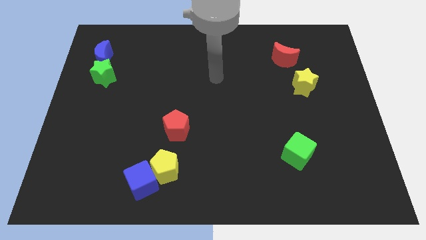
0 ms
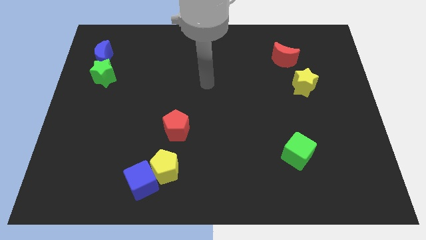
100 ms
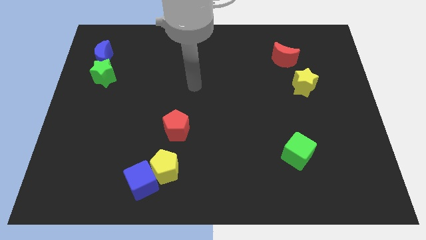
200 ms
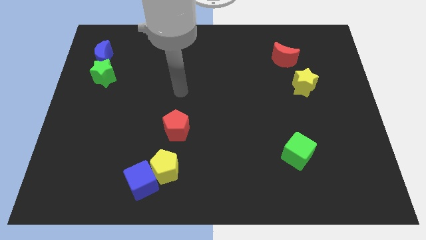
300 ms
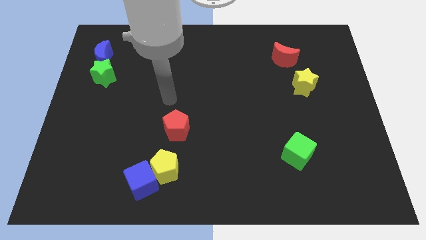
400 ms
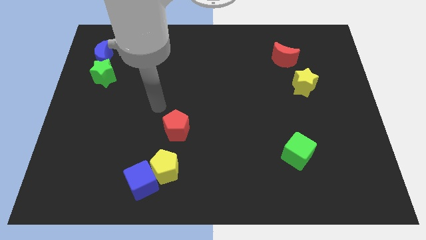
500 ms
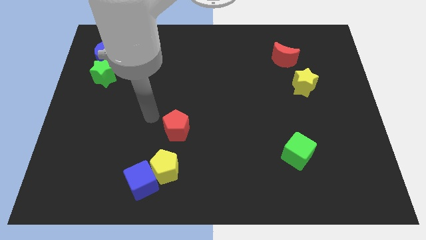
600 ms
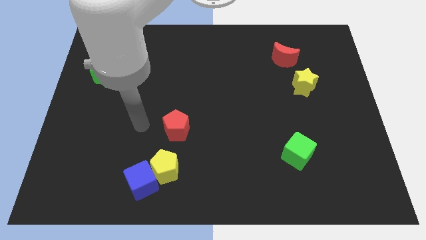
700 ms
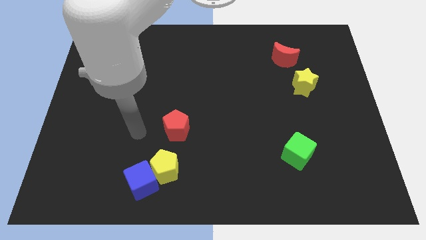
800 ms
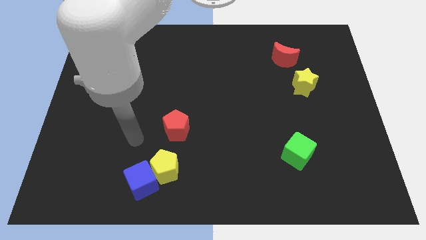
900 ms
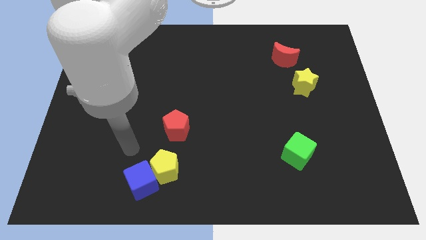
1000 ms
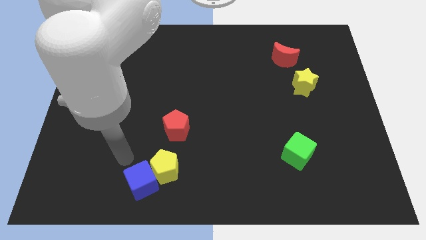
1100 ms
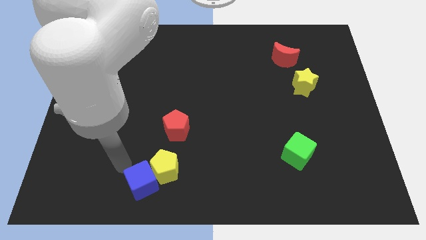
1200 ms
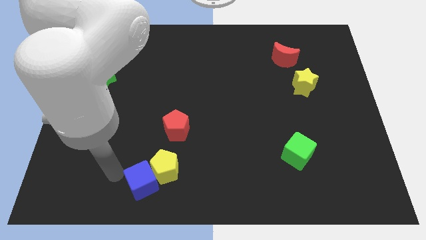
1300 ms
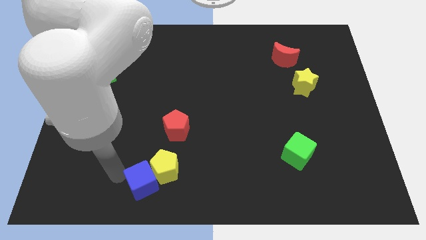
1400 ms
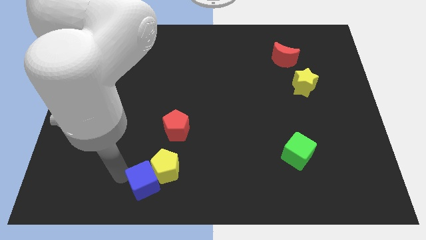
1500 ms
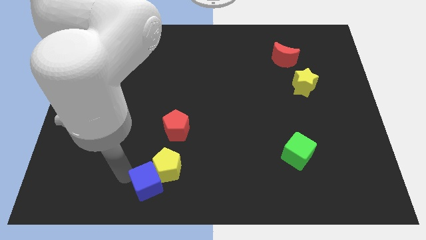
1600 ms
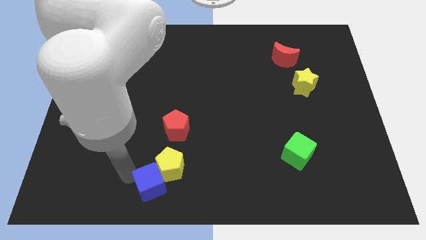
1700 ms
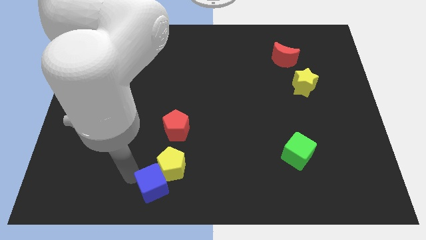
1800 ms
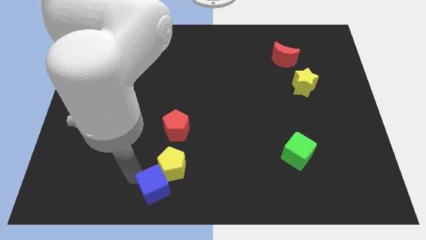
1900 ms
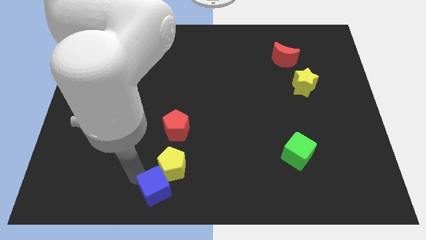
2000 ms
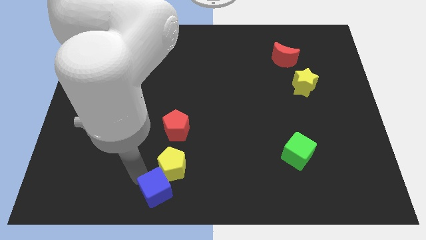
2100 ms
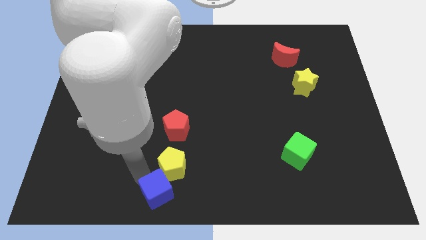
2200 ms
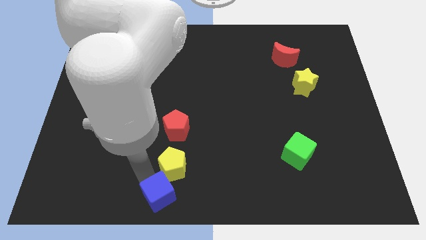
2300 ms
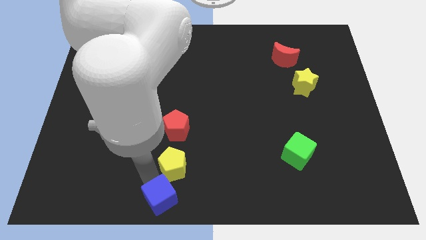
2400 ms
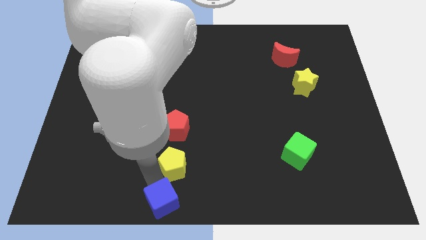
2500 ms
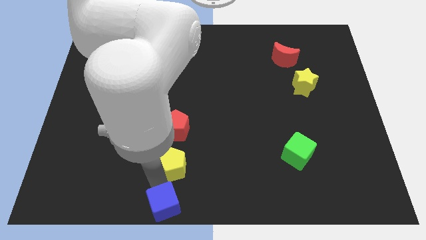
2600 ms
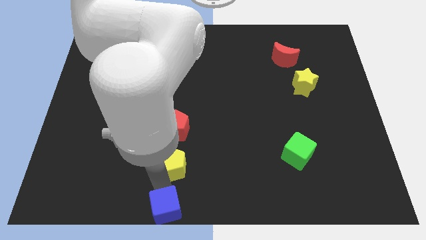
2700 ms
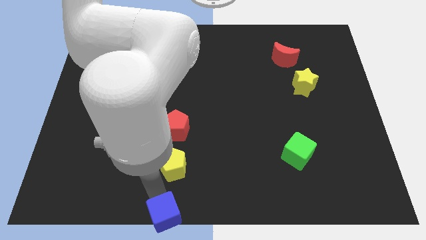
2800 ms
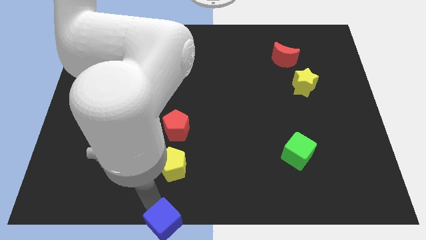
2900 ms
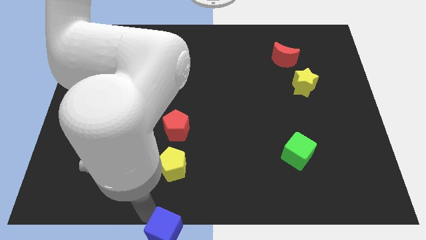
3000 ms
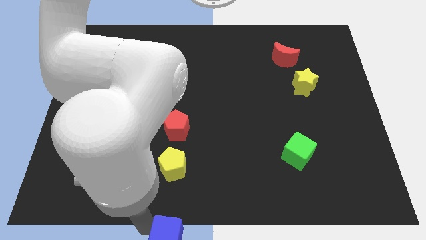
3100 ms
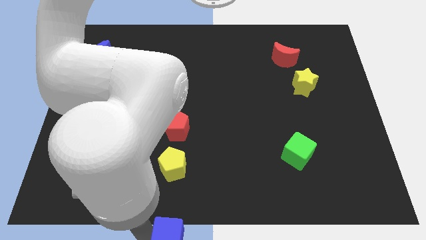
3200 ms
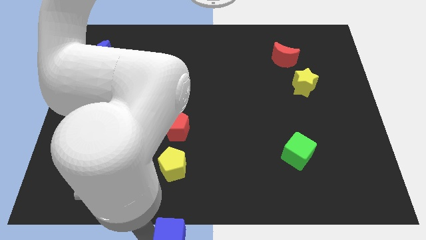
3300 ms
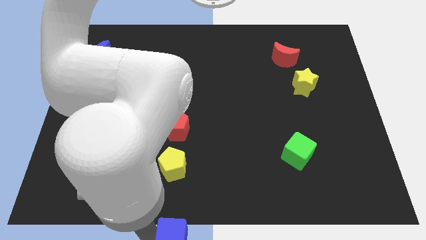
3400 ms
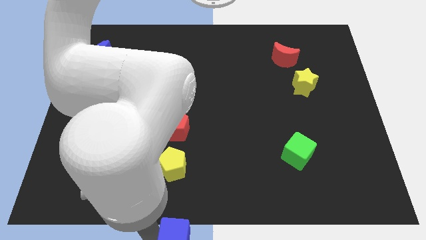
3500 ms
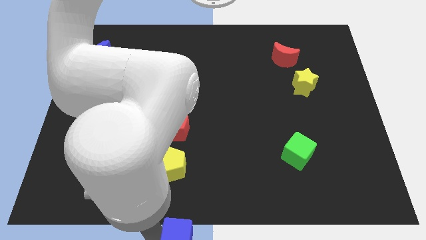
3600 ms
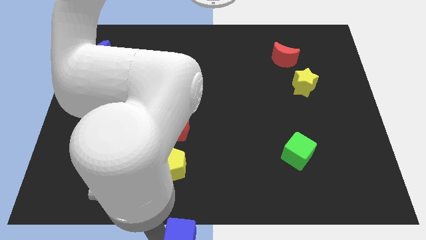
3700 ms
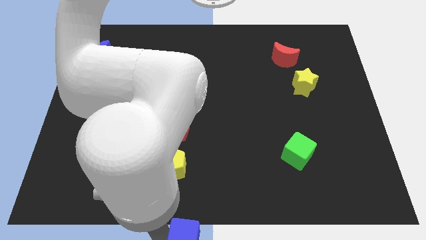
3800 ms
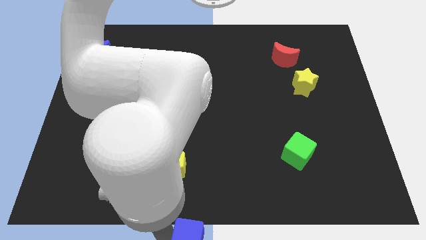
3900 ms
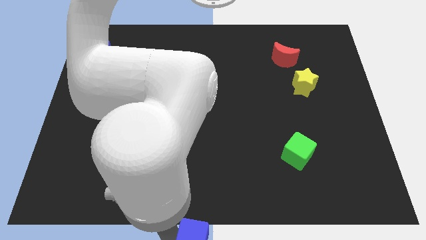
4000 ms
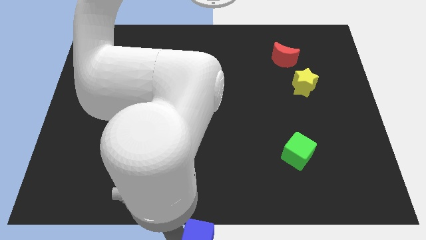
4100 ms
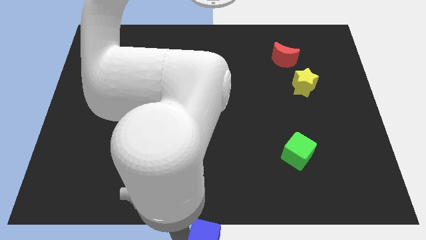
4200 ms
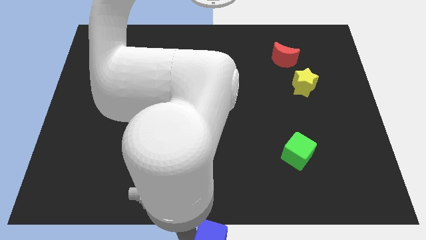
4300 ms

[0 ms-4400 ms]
slightly slide the blue cube to the right

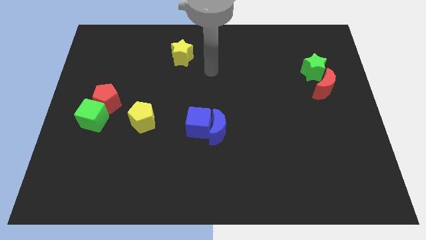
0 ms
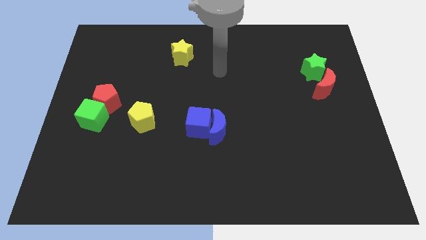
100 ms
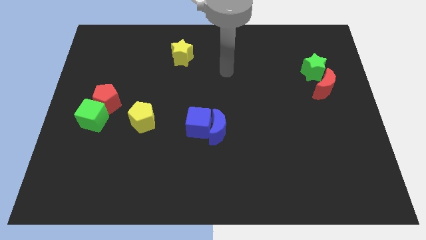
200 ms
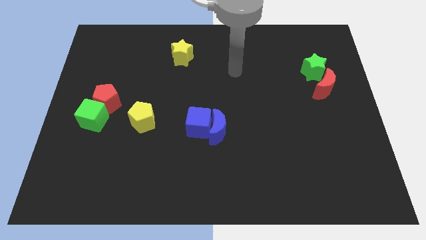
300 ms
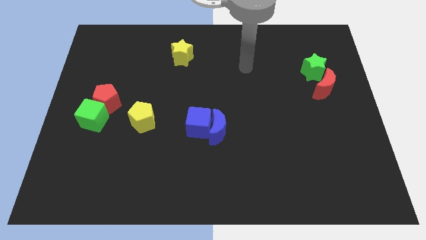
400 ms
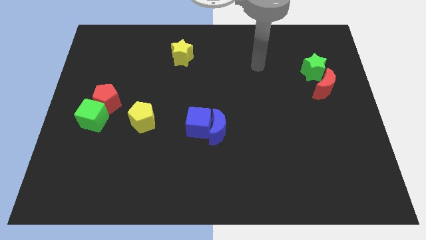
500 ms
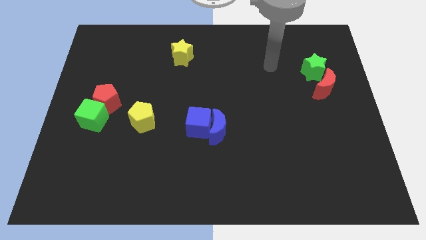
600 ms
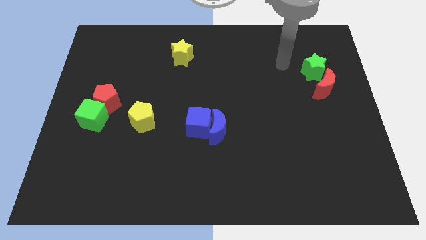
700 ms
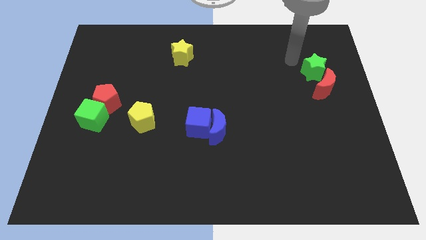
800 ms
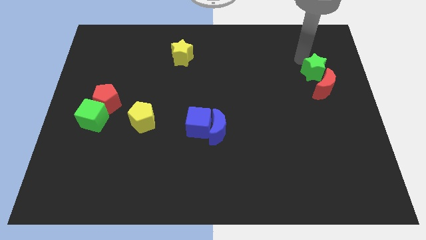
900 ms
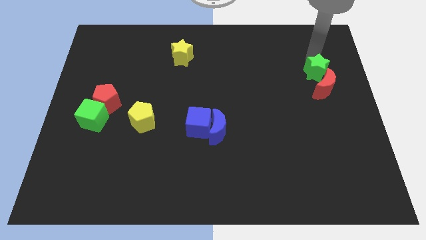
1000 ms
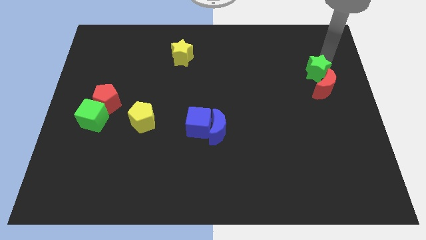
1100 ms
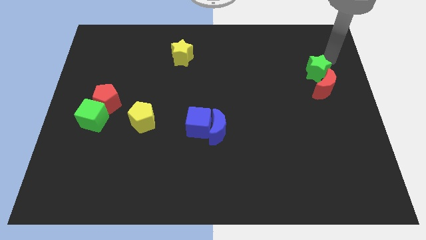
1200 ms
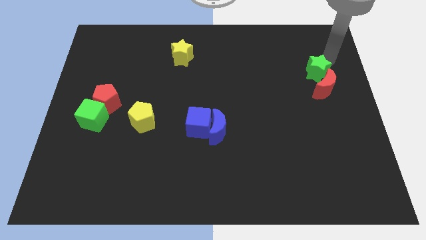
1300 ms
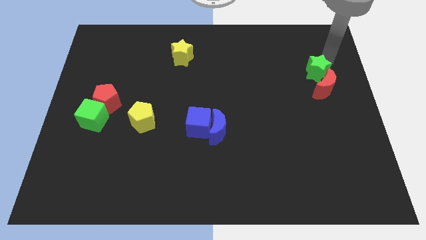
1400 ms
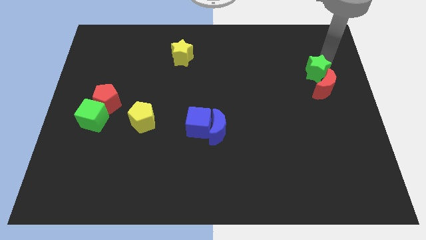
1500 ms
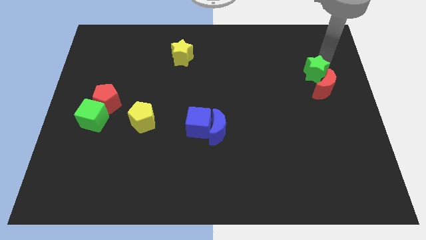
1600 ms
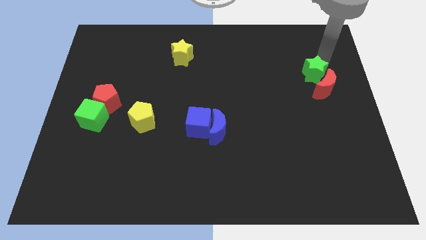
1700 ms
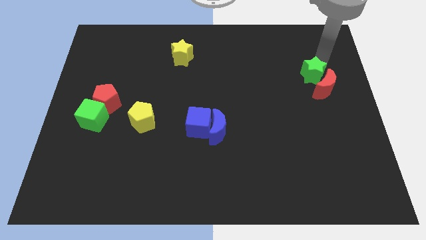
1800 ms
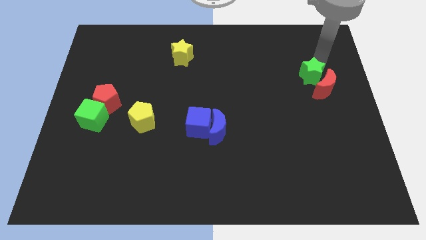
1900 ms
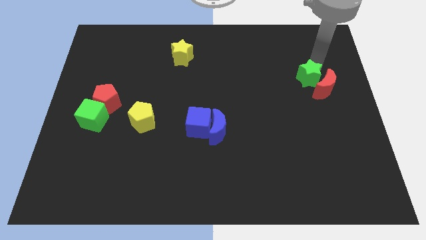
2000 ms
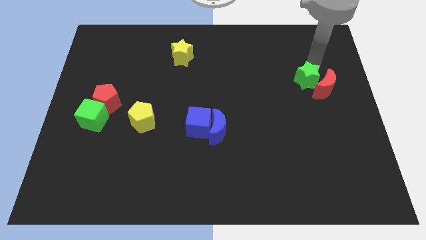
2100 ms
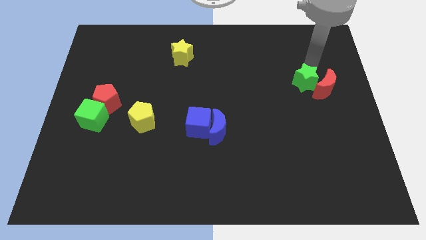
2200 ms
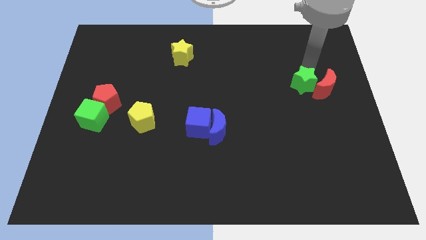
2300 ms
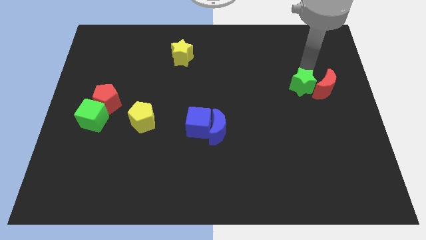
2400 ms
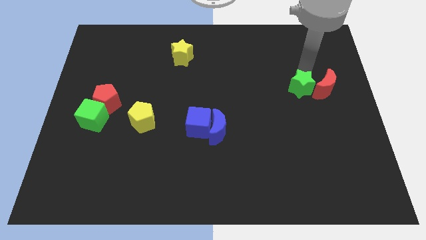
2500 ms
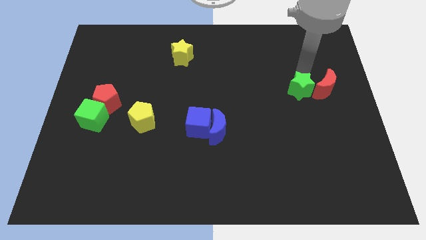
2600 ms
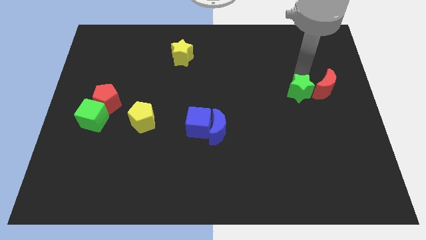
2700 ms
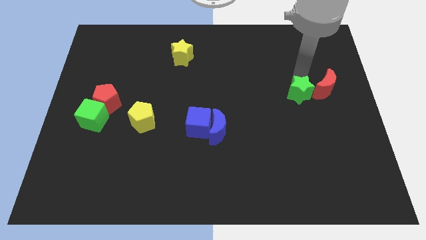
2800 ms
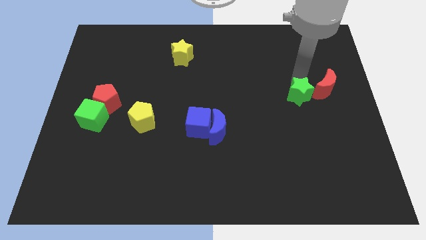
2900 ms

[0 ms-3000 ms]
slightly push the green star down

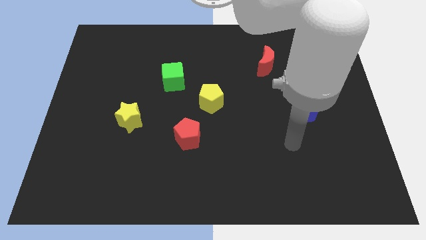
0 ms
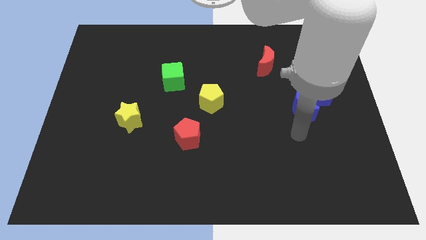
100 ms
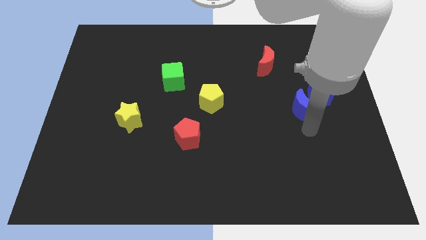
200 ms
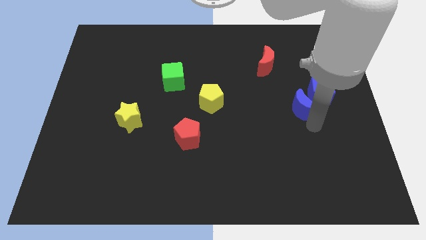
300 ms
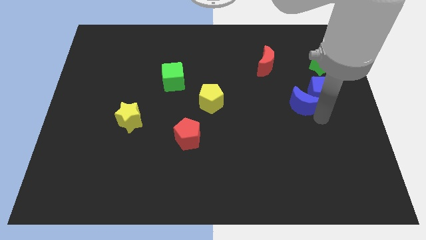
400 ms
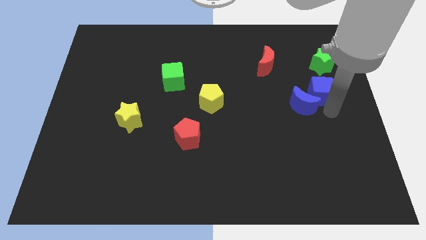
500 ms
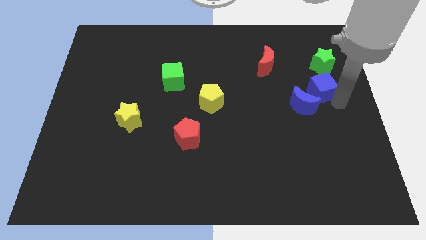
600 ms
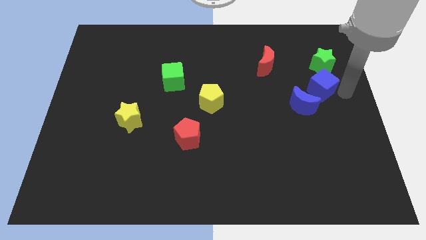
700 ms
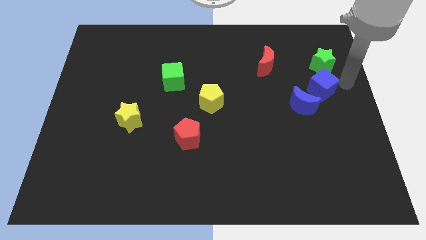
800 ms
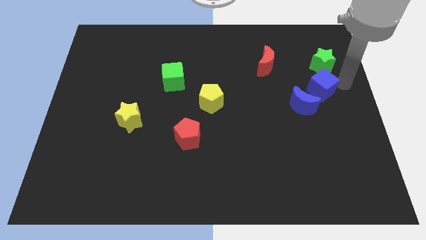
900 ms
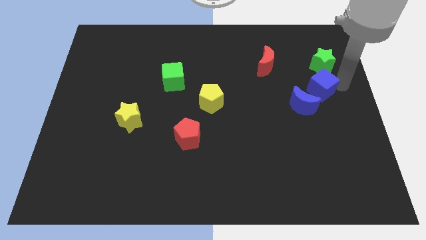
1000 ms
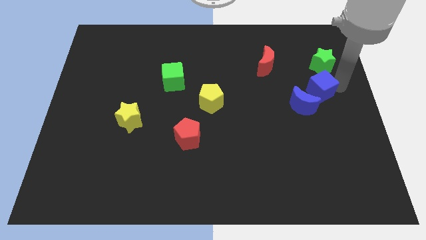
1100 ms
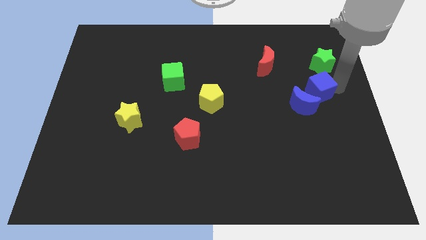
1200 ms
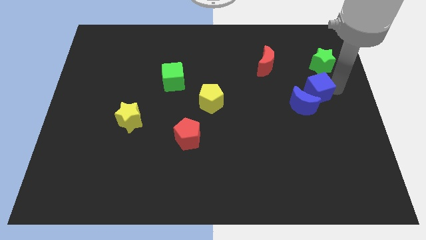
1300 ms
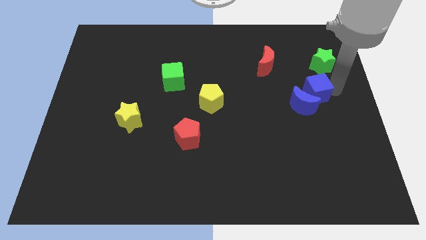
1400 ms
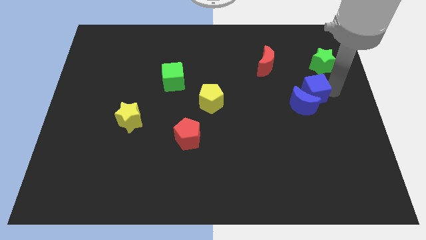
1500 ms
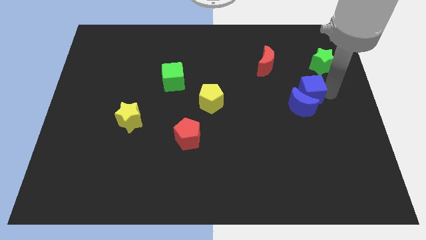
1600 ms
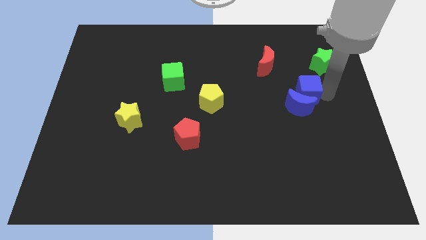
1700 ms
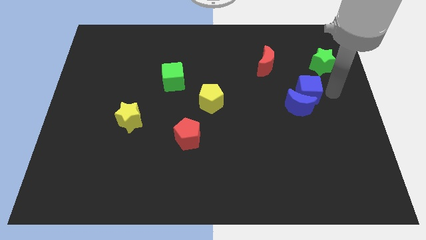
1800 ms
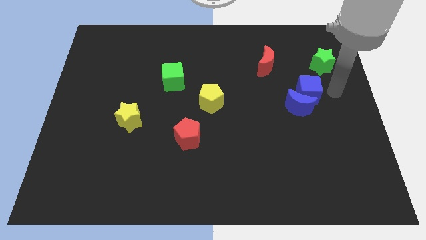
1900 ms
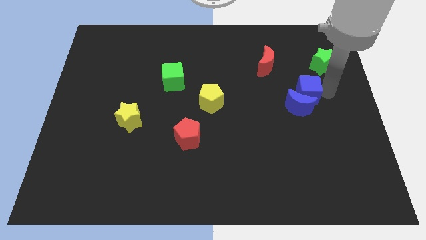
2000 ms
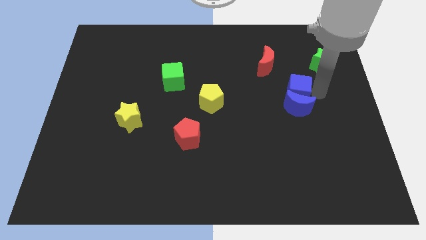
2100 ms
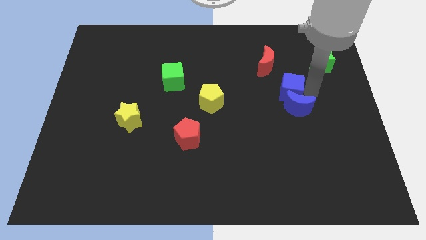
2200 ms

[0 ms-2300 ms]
slide the blue cube to the left a little bit
